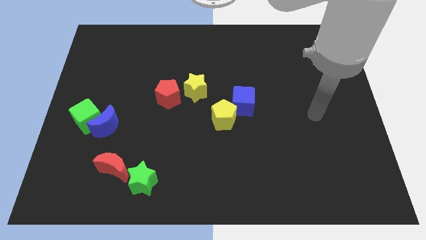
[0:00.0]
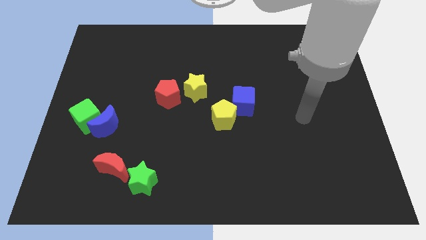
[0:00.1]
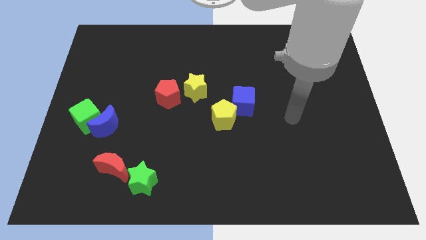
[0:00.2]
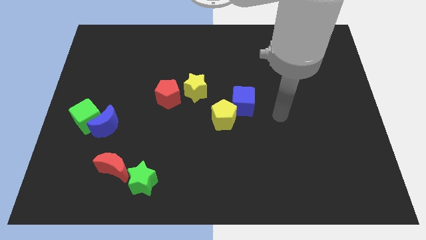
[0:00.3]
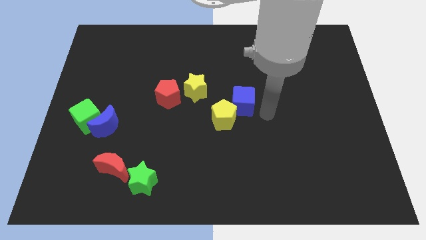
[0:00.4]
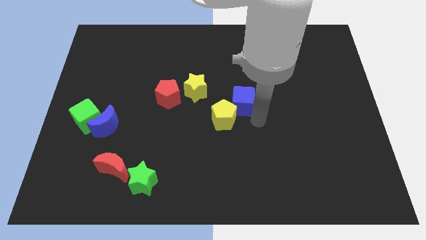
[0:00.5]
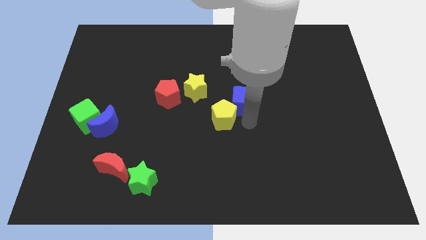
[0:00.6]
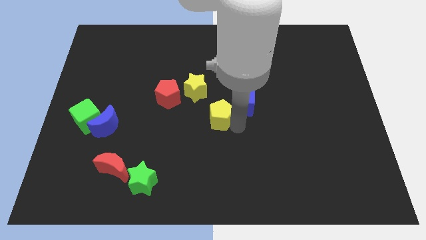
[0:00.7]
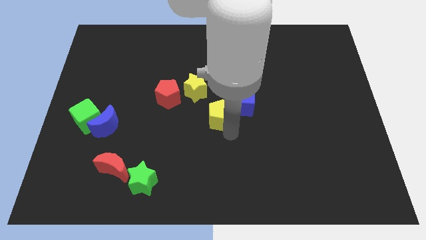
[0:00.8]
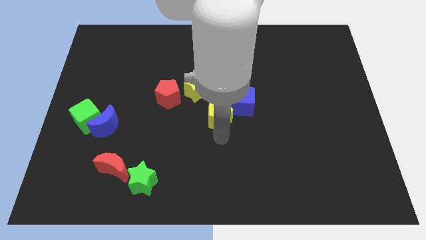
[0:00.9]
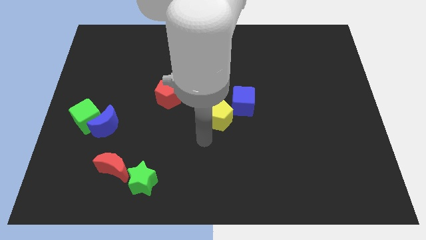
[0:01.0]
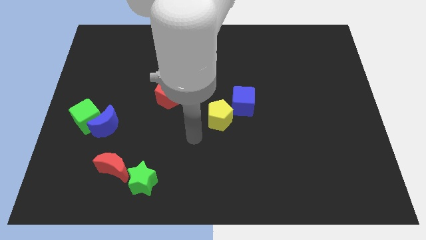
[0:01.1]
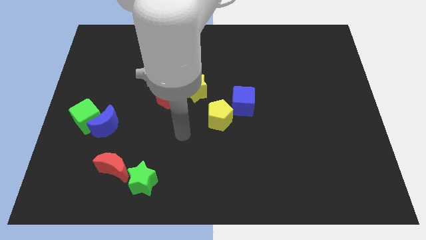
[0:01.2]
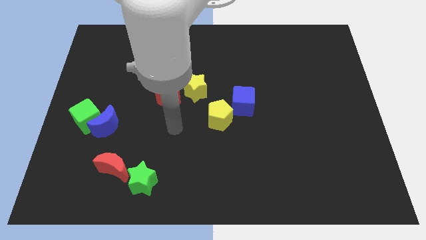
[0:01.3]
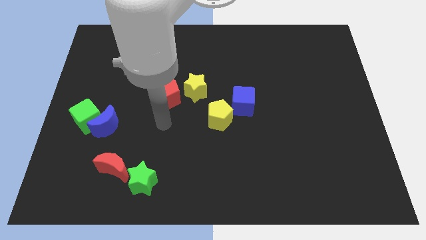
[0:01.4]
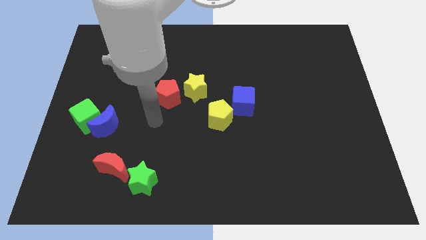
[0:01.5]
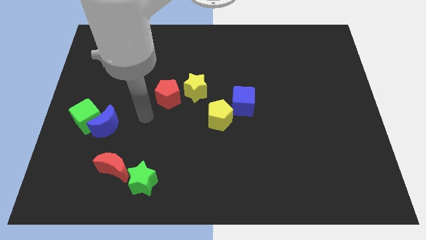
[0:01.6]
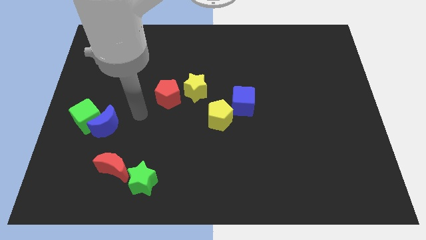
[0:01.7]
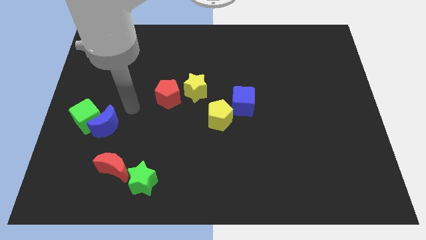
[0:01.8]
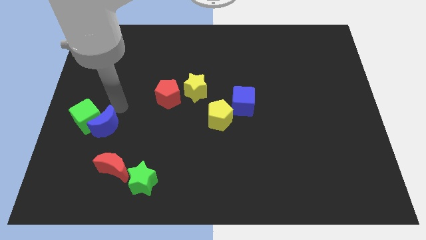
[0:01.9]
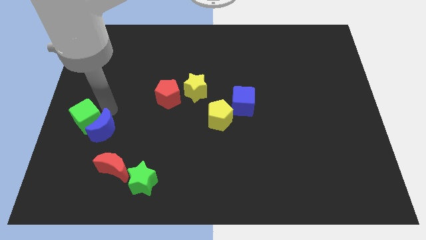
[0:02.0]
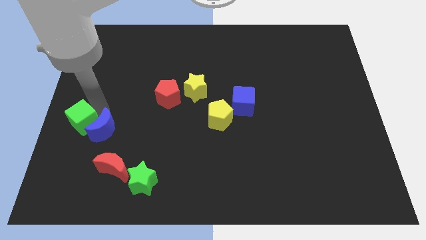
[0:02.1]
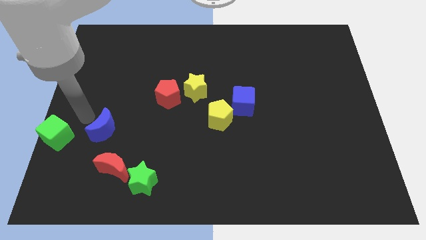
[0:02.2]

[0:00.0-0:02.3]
separate the blue moon from the green cube

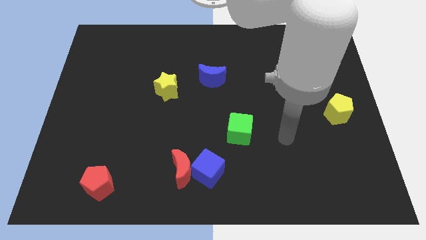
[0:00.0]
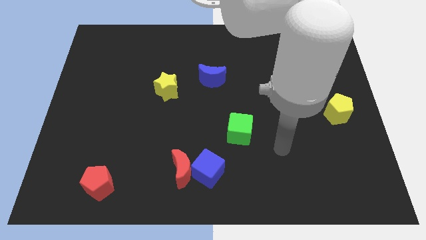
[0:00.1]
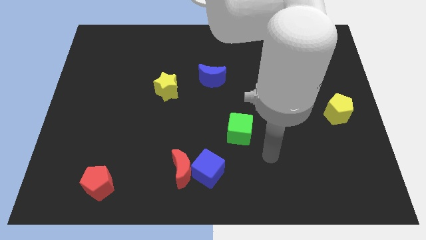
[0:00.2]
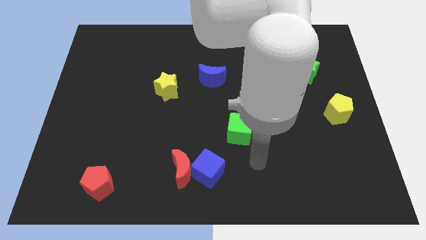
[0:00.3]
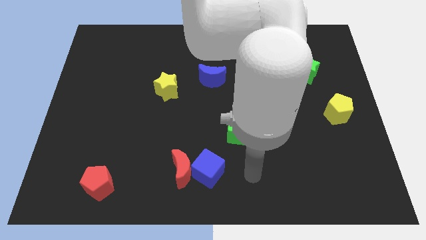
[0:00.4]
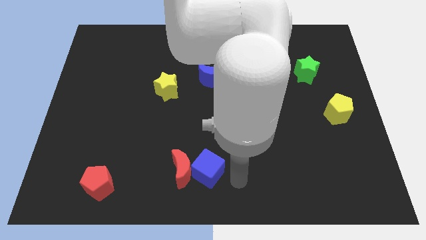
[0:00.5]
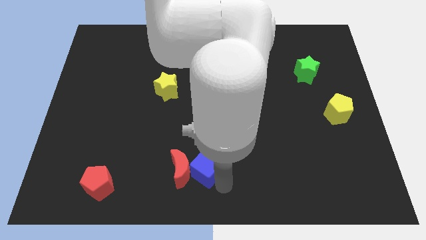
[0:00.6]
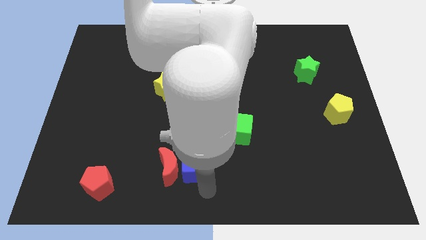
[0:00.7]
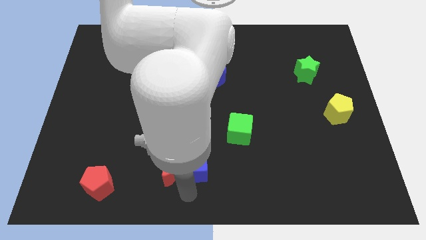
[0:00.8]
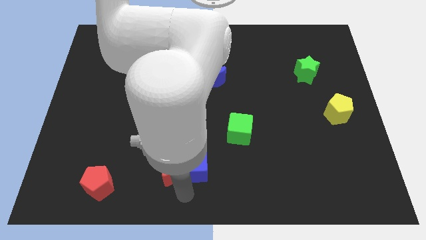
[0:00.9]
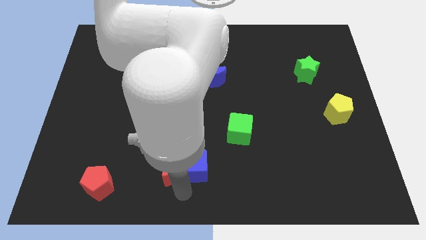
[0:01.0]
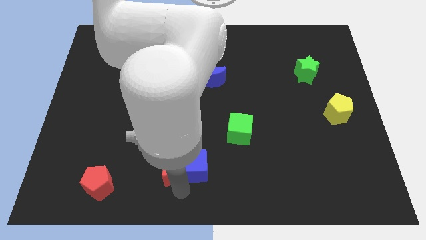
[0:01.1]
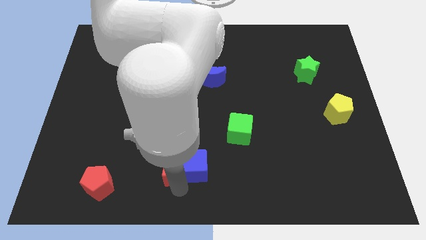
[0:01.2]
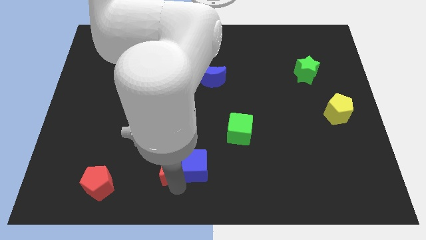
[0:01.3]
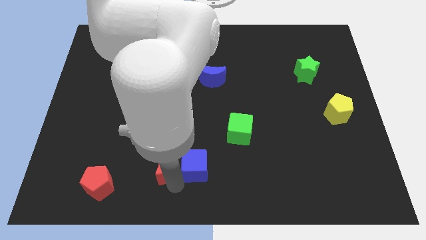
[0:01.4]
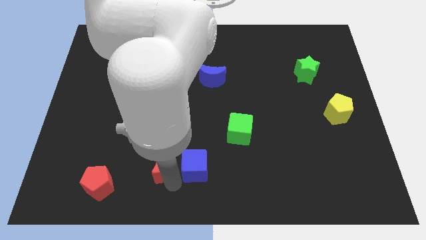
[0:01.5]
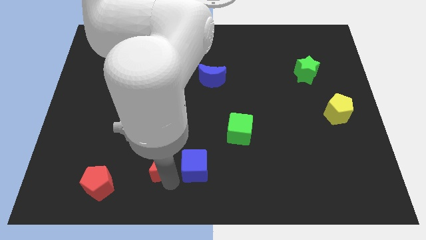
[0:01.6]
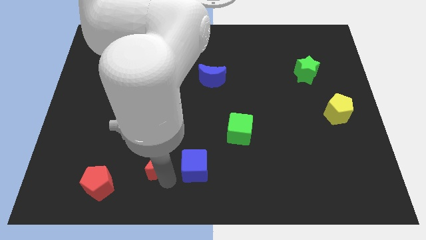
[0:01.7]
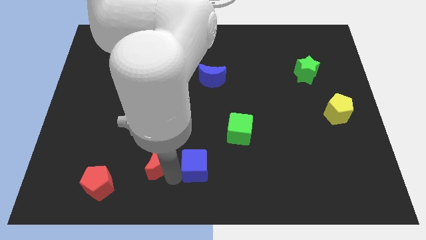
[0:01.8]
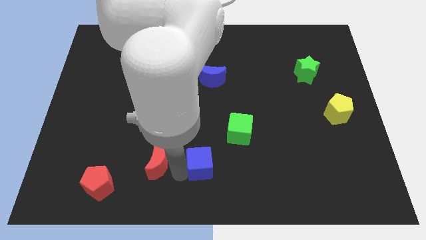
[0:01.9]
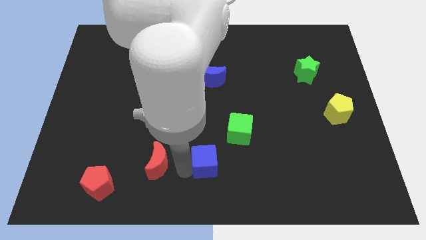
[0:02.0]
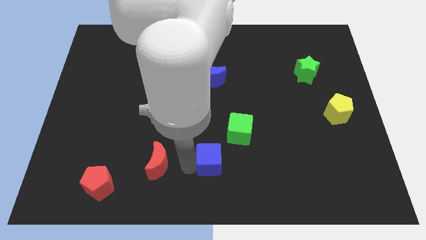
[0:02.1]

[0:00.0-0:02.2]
separate the red moon from the blue cube

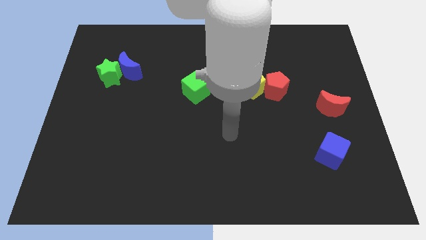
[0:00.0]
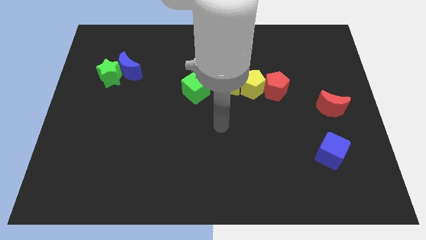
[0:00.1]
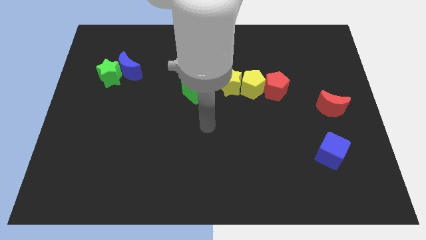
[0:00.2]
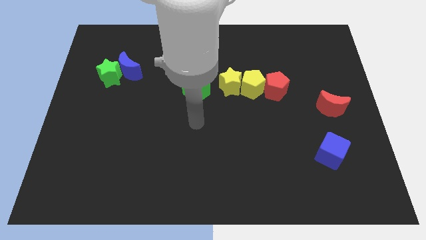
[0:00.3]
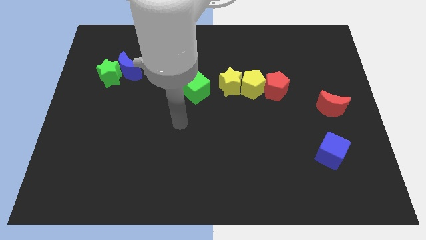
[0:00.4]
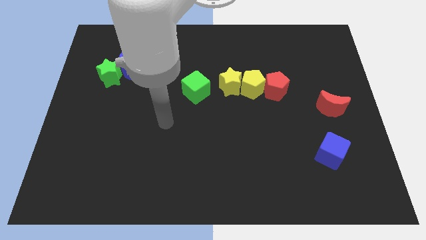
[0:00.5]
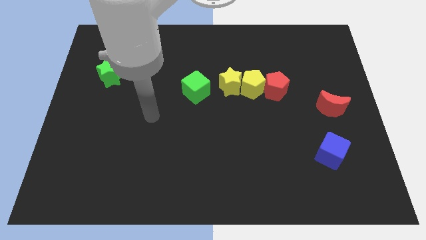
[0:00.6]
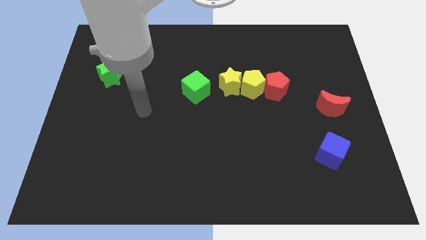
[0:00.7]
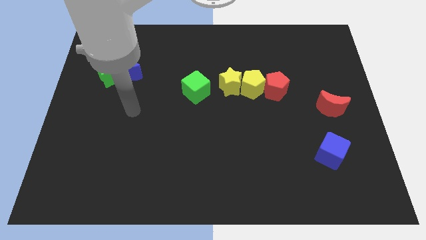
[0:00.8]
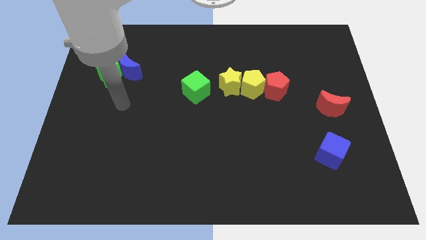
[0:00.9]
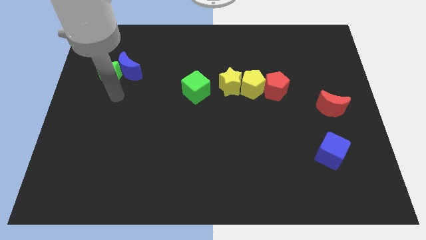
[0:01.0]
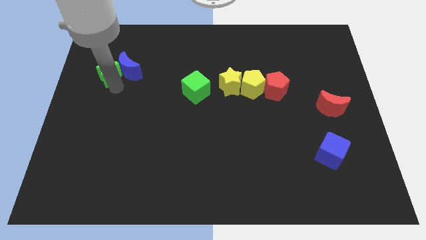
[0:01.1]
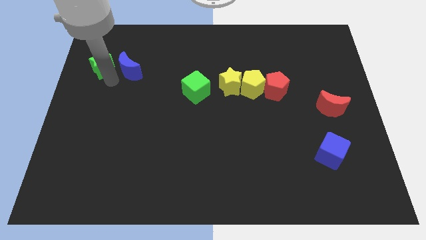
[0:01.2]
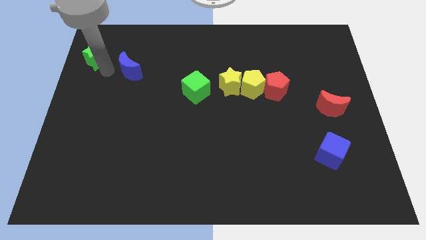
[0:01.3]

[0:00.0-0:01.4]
move the blue moon away from the green star

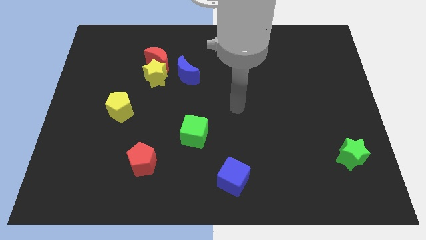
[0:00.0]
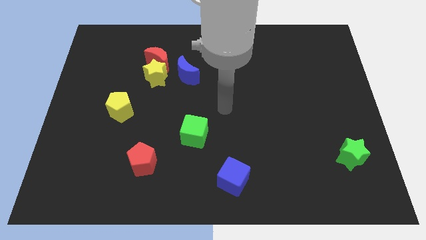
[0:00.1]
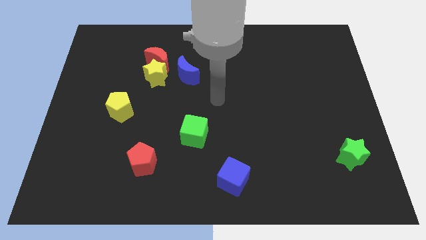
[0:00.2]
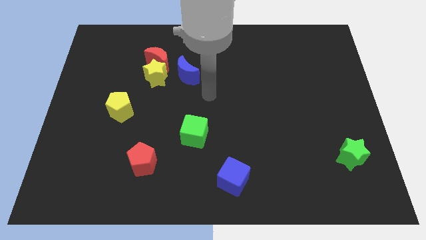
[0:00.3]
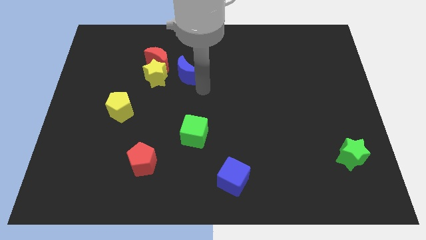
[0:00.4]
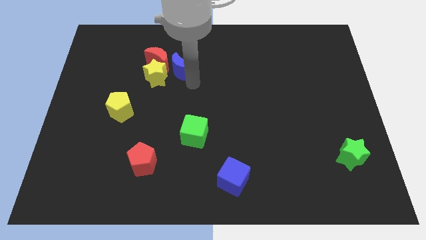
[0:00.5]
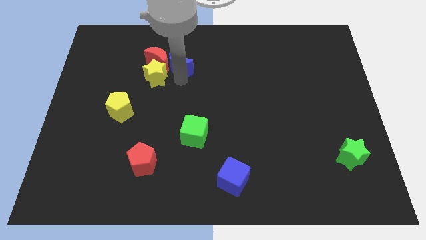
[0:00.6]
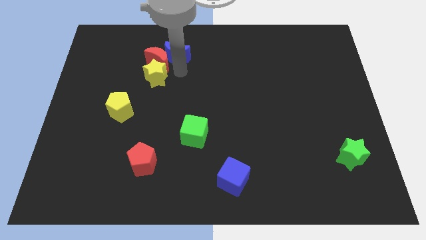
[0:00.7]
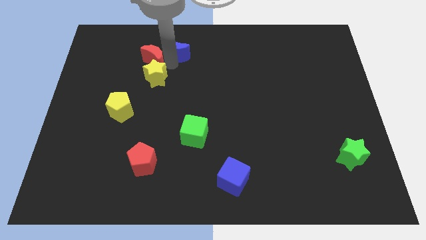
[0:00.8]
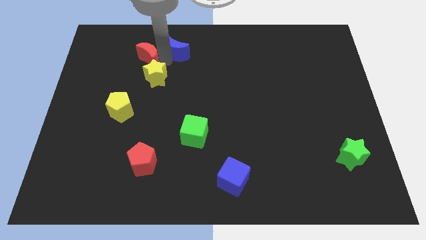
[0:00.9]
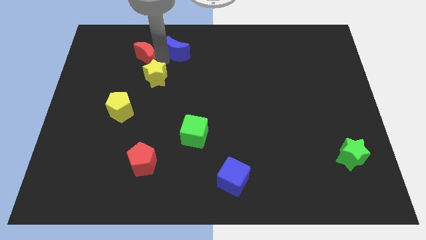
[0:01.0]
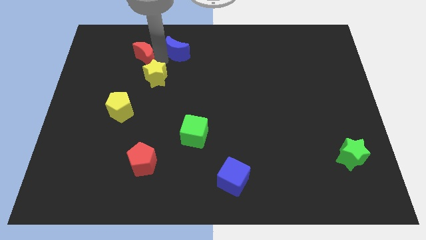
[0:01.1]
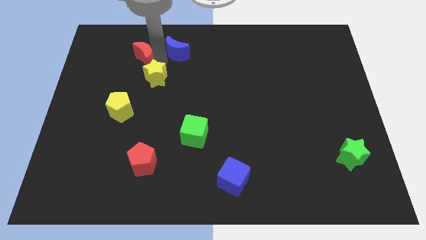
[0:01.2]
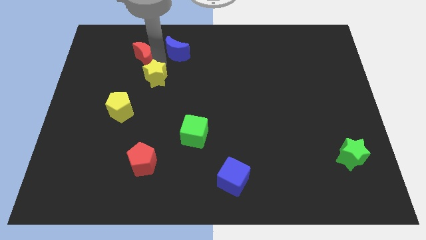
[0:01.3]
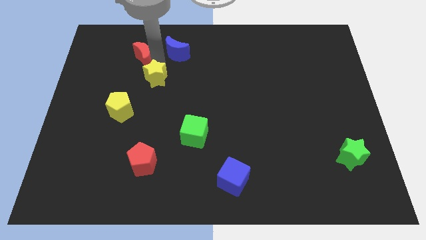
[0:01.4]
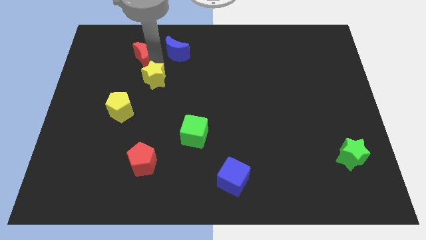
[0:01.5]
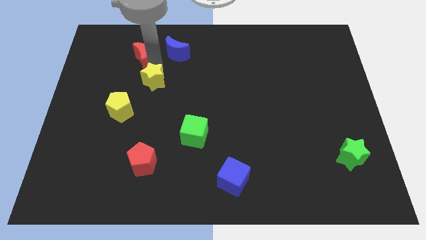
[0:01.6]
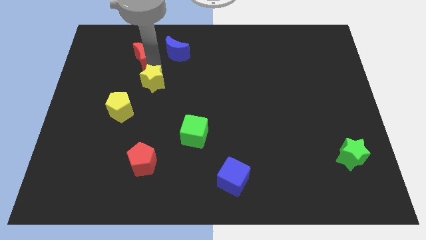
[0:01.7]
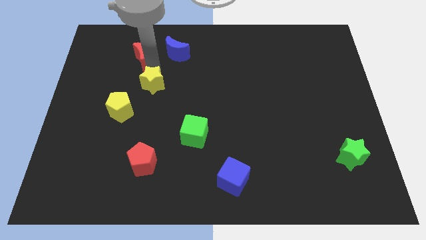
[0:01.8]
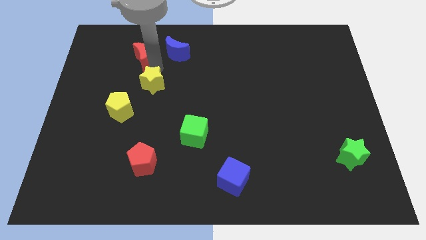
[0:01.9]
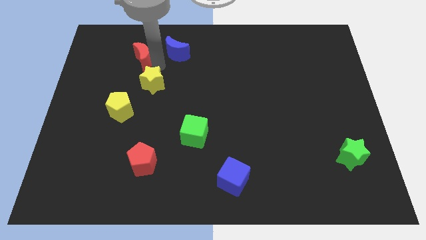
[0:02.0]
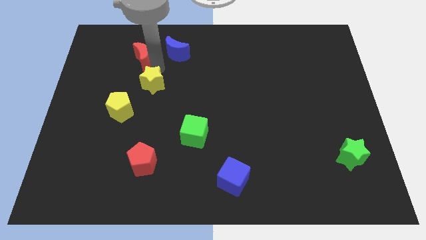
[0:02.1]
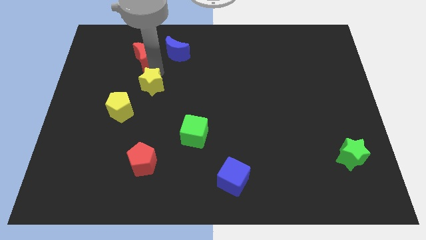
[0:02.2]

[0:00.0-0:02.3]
pull the yellow star apart from the red moon and blue moon

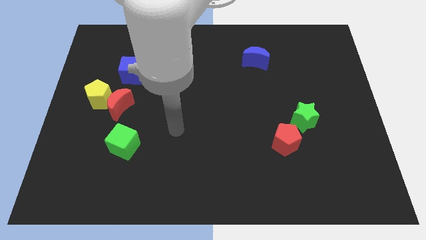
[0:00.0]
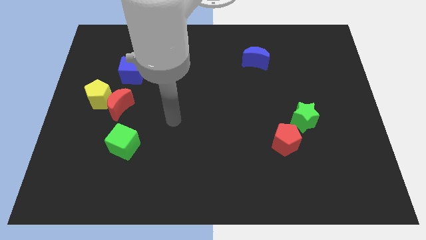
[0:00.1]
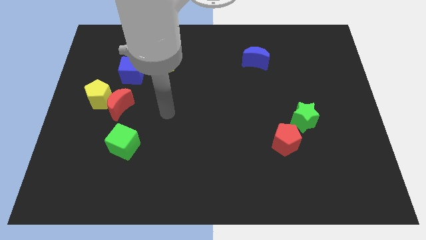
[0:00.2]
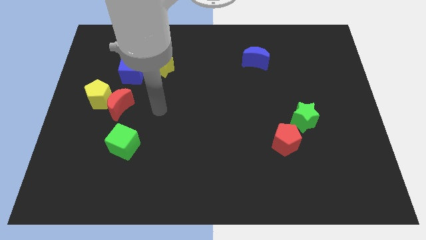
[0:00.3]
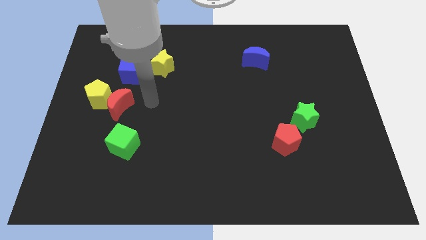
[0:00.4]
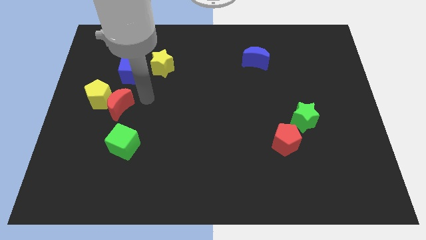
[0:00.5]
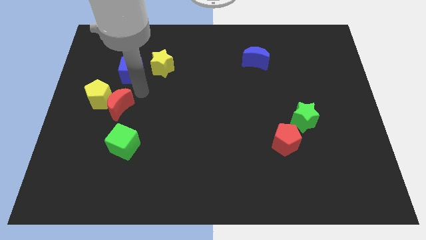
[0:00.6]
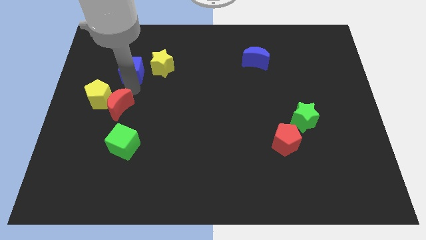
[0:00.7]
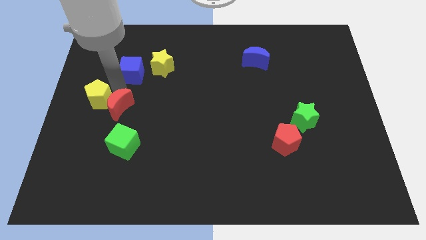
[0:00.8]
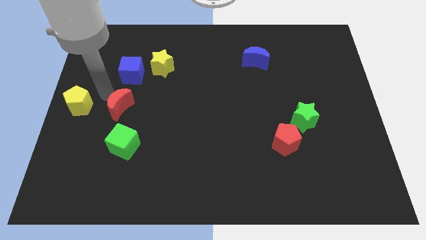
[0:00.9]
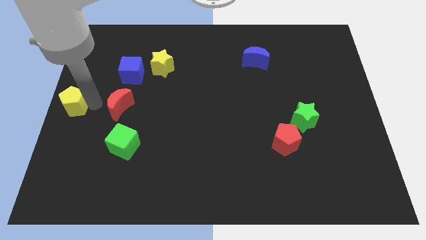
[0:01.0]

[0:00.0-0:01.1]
separate the red moon from the yellow pentagon

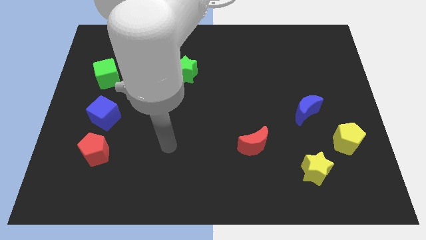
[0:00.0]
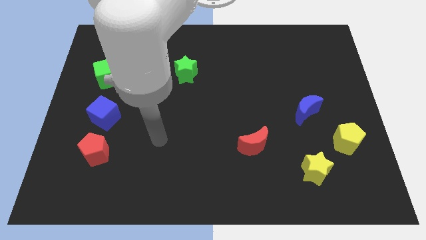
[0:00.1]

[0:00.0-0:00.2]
move the red pentagon away from the blue cube
